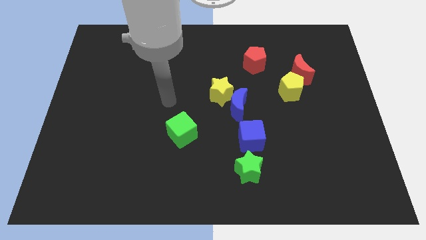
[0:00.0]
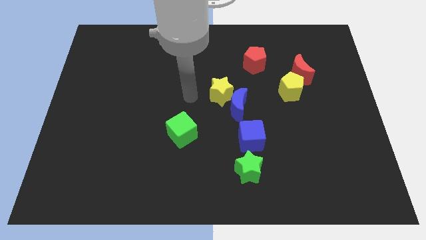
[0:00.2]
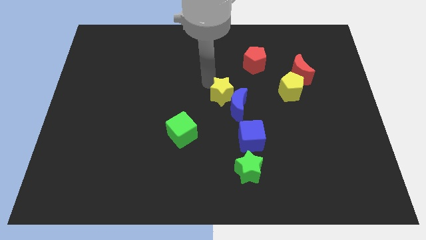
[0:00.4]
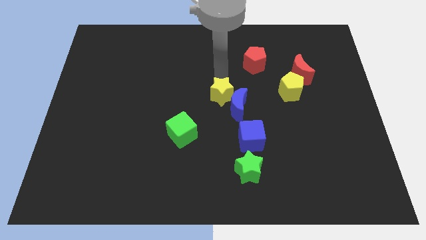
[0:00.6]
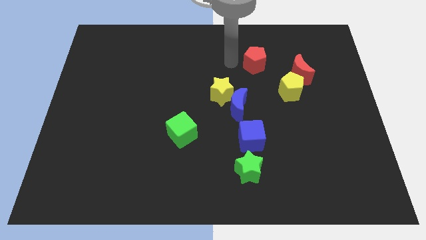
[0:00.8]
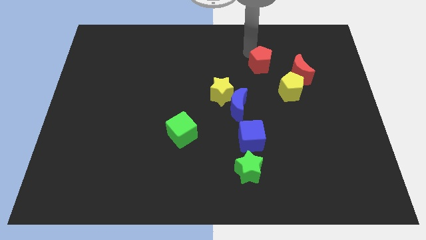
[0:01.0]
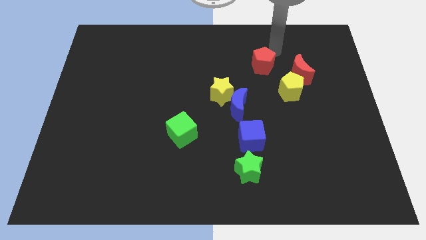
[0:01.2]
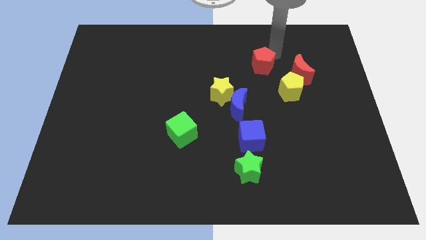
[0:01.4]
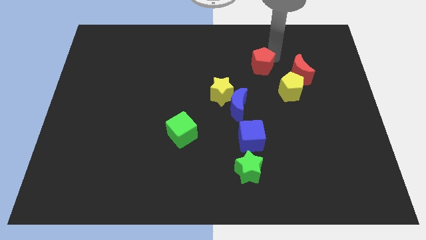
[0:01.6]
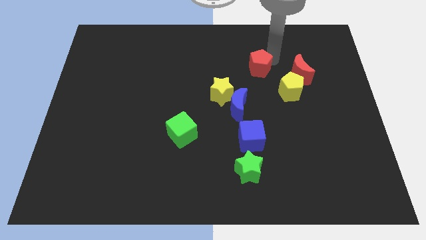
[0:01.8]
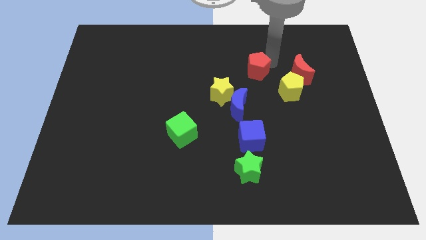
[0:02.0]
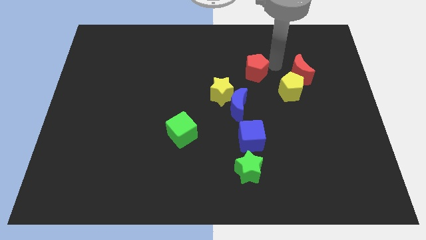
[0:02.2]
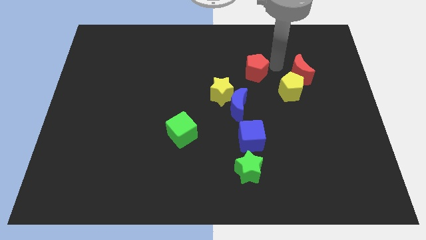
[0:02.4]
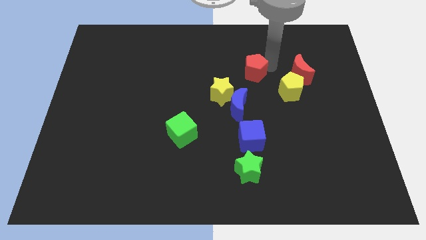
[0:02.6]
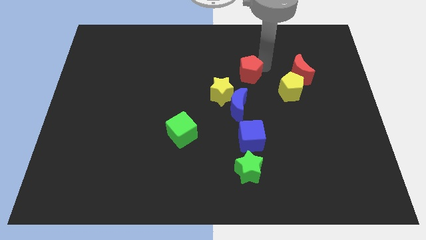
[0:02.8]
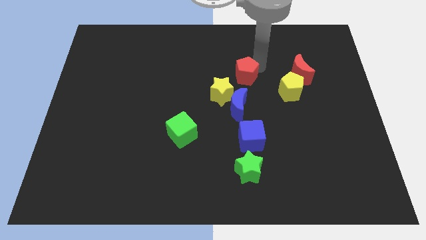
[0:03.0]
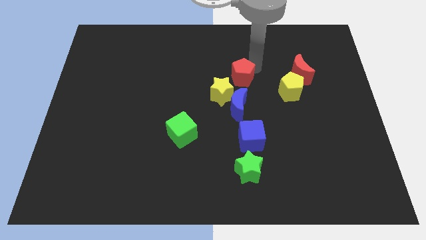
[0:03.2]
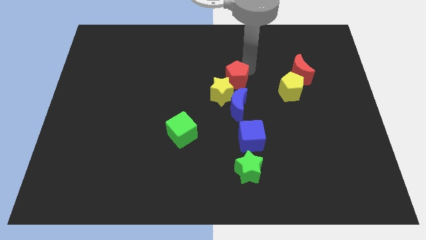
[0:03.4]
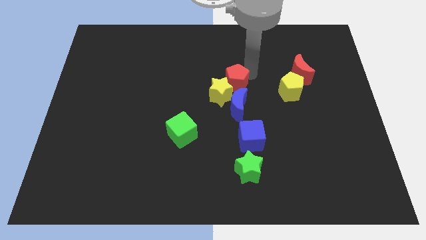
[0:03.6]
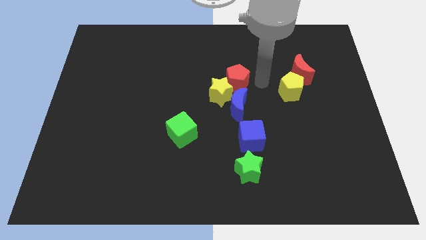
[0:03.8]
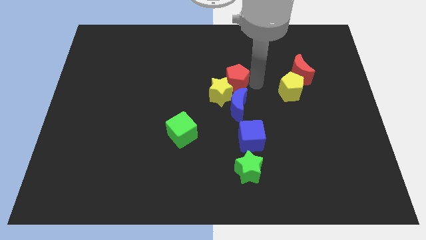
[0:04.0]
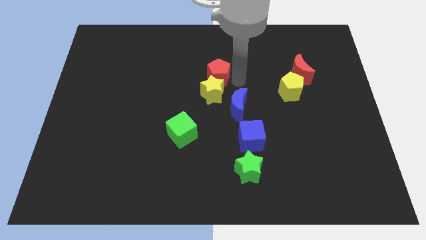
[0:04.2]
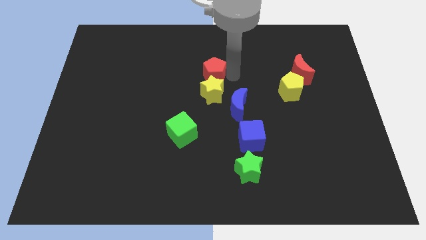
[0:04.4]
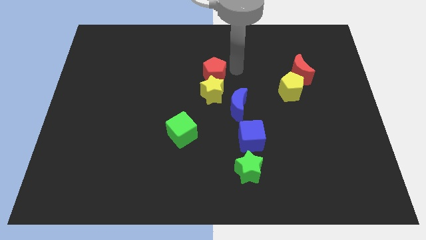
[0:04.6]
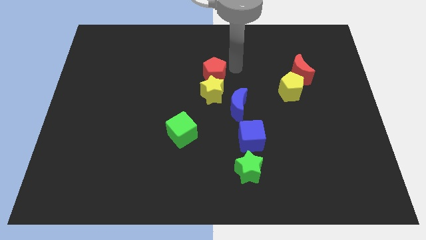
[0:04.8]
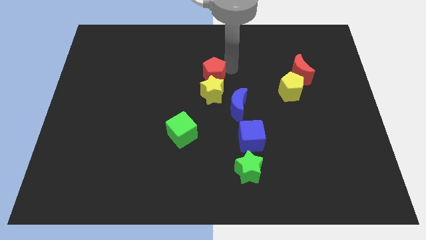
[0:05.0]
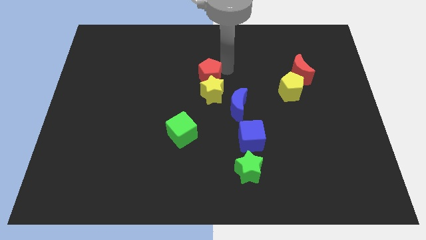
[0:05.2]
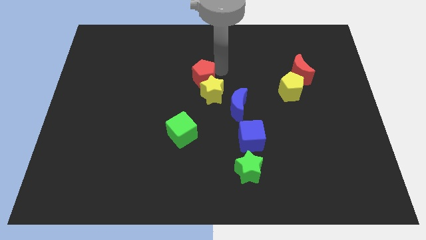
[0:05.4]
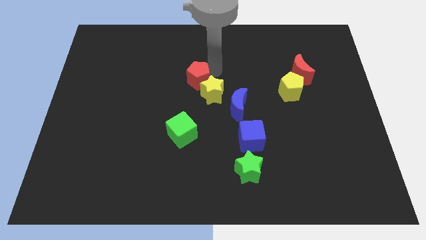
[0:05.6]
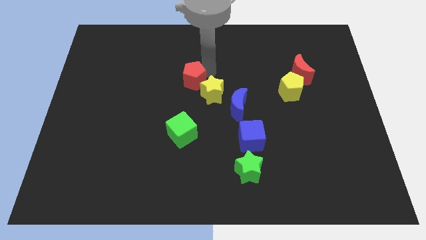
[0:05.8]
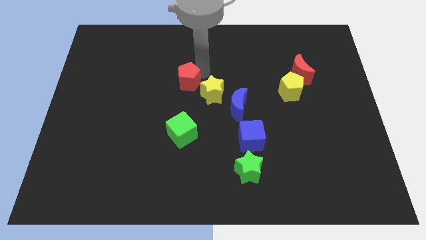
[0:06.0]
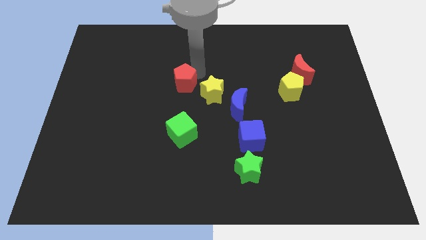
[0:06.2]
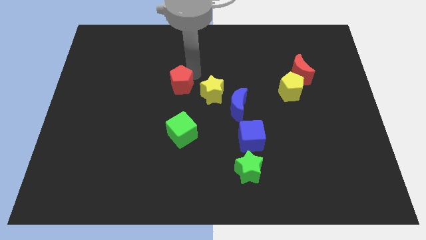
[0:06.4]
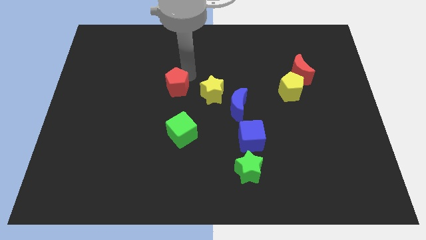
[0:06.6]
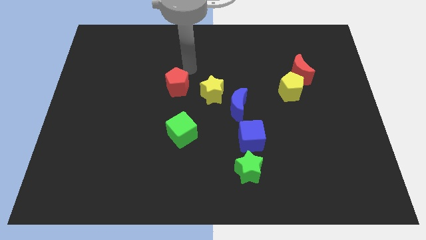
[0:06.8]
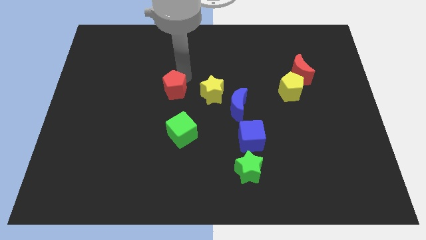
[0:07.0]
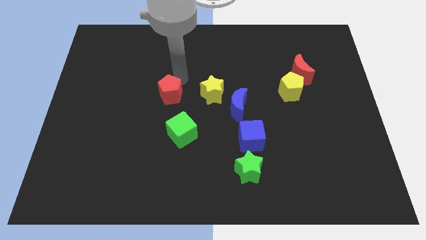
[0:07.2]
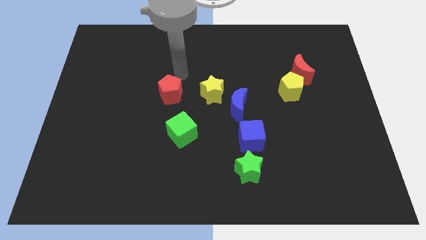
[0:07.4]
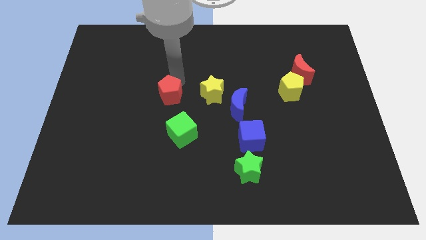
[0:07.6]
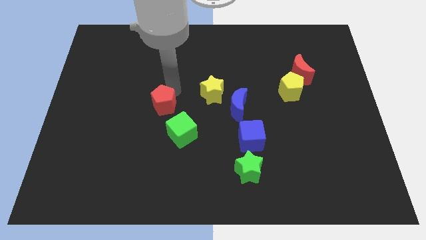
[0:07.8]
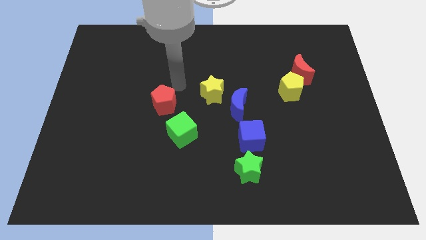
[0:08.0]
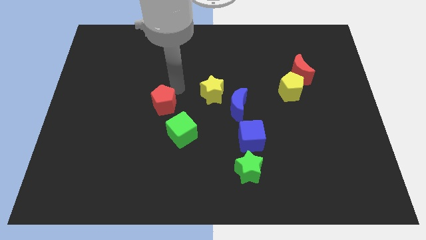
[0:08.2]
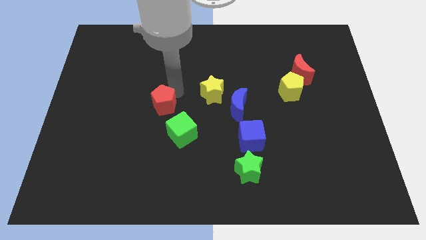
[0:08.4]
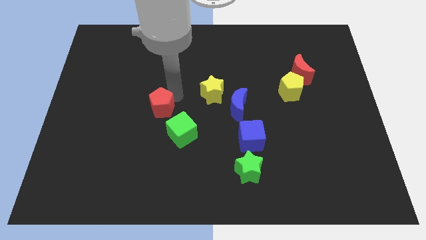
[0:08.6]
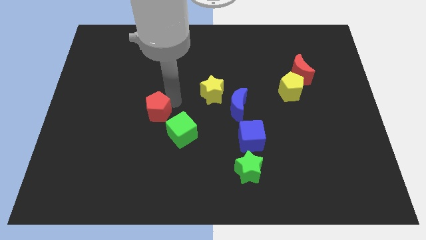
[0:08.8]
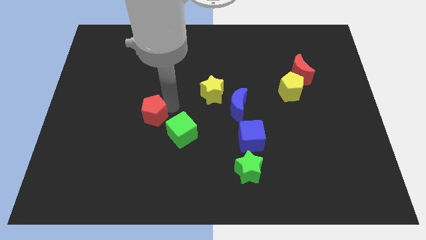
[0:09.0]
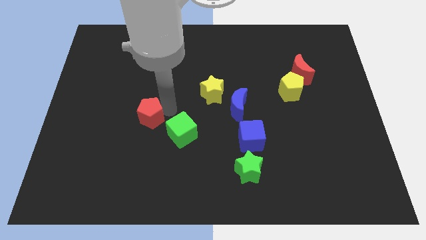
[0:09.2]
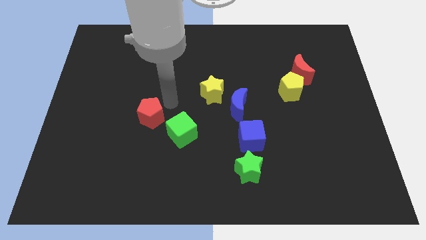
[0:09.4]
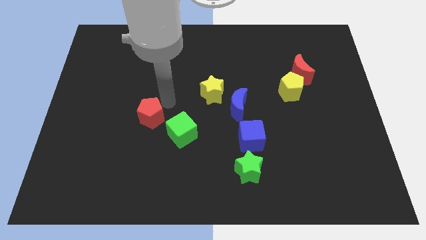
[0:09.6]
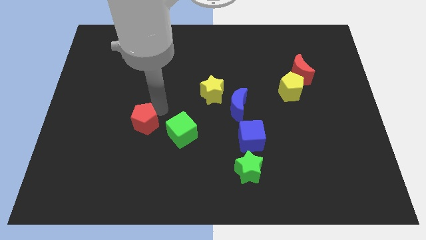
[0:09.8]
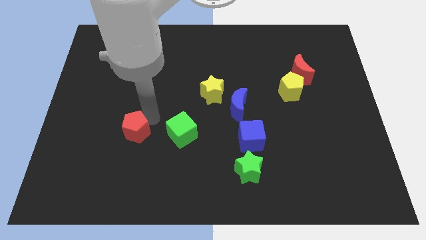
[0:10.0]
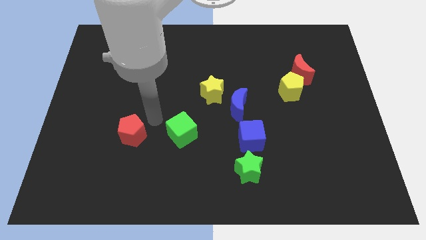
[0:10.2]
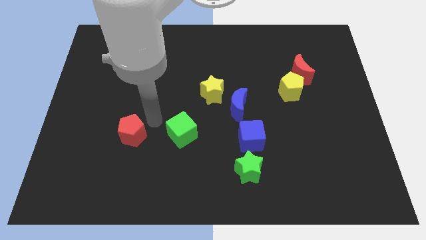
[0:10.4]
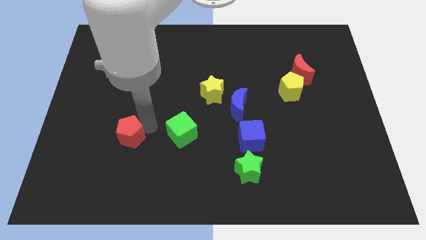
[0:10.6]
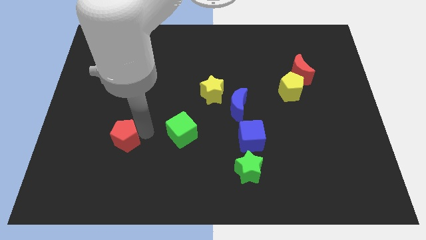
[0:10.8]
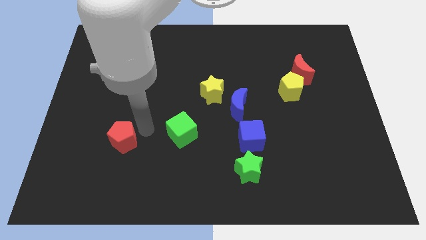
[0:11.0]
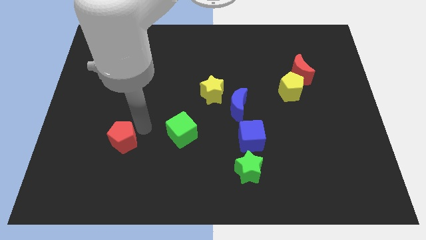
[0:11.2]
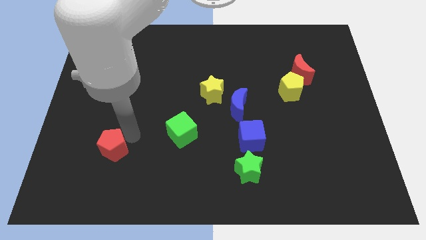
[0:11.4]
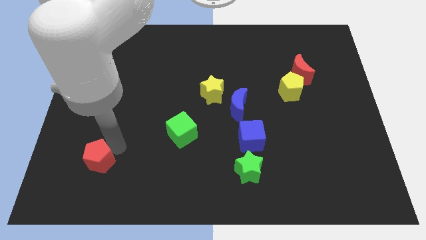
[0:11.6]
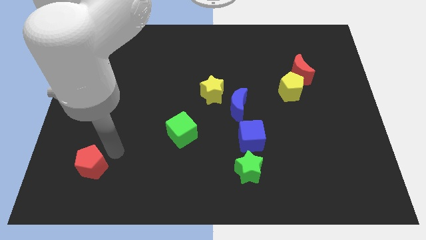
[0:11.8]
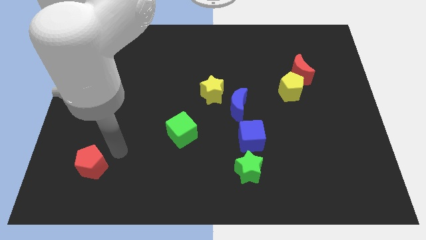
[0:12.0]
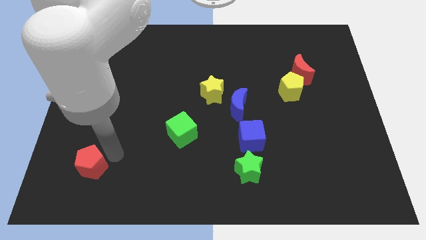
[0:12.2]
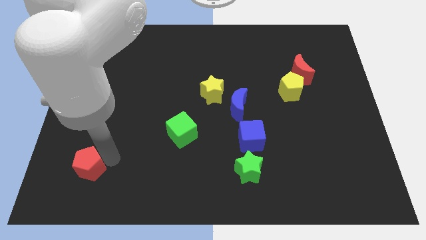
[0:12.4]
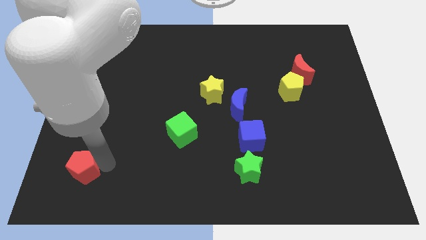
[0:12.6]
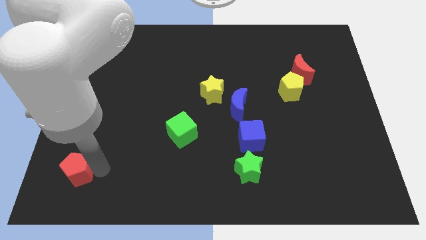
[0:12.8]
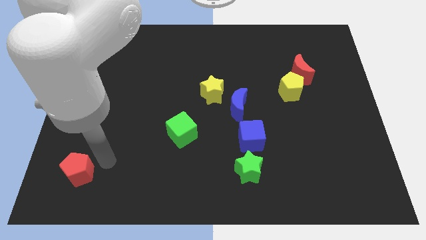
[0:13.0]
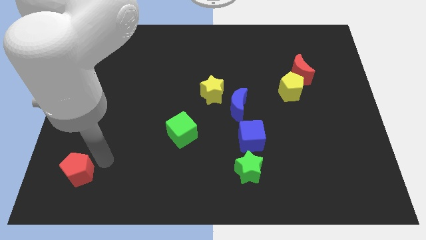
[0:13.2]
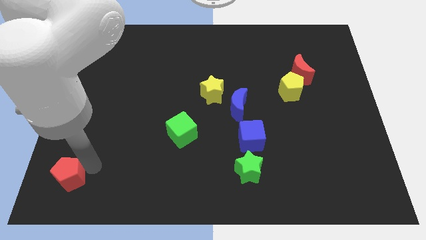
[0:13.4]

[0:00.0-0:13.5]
move the red pentagon to the bottom left corner
